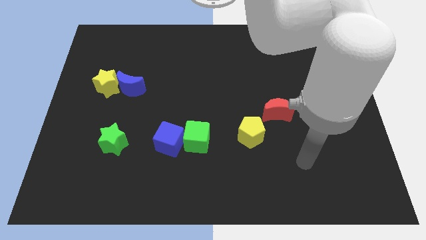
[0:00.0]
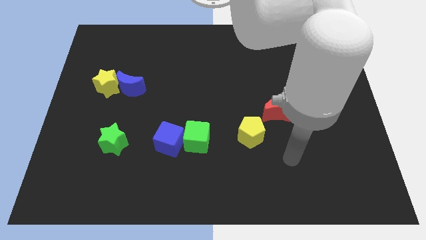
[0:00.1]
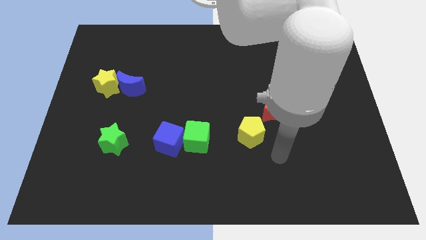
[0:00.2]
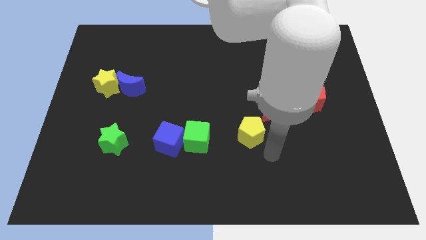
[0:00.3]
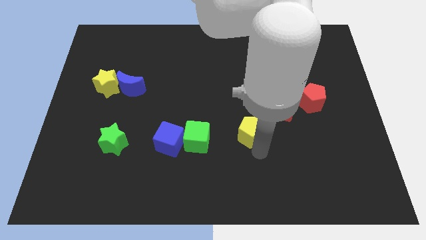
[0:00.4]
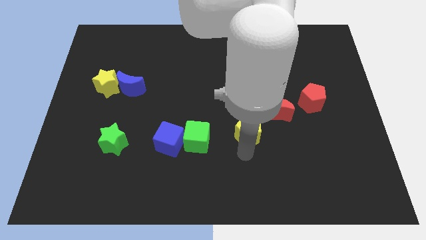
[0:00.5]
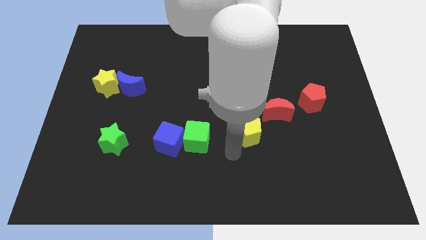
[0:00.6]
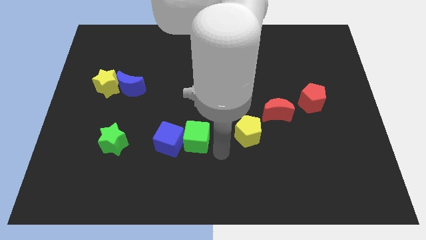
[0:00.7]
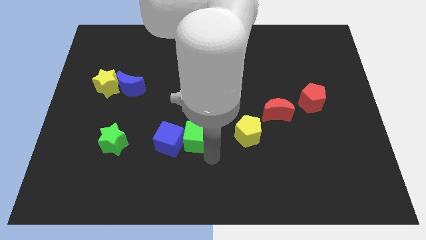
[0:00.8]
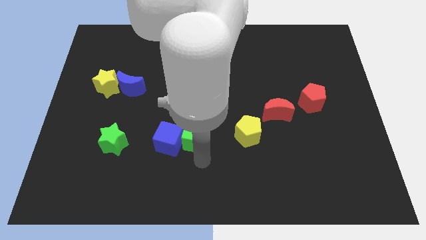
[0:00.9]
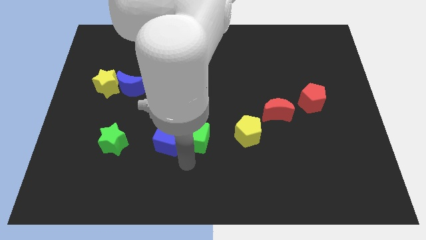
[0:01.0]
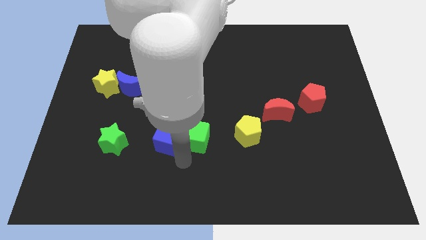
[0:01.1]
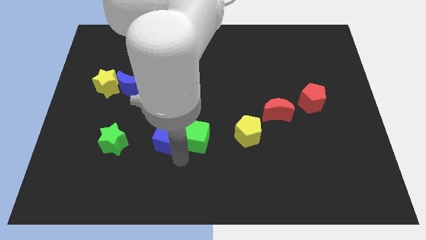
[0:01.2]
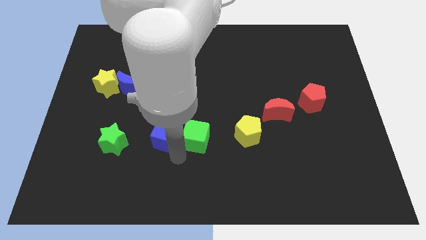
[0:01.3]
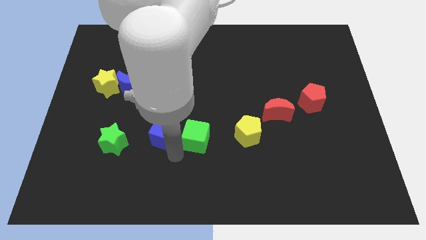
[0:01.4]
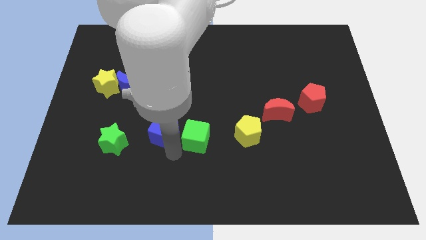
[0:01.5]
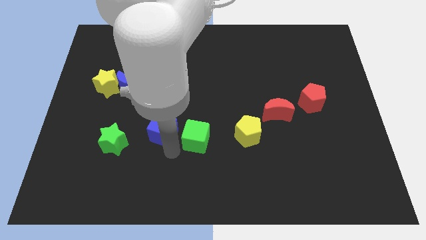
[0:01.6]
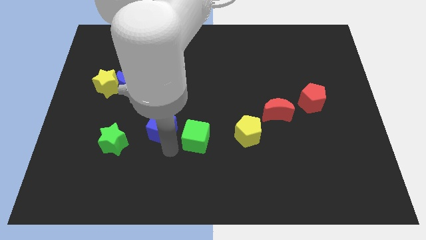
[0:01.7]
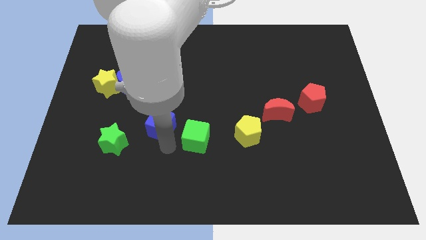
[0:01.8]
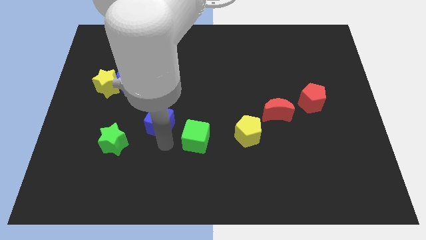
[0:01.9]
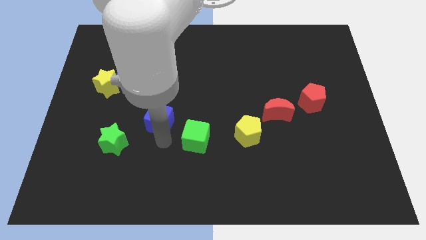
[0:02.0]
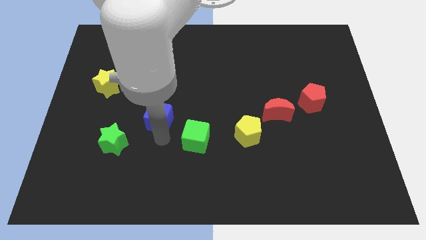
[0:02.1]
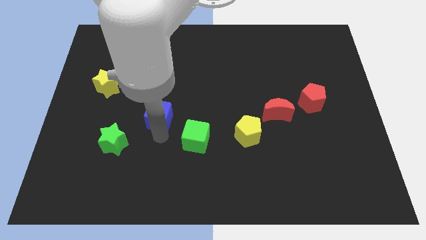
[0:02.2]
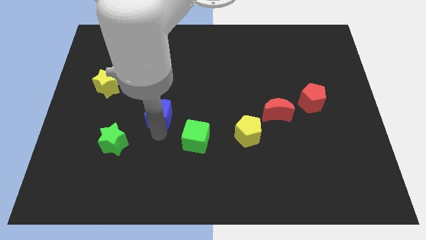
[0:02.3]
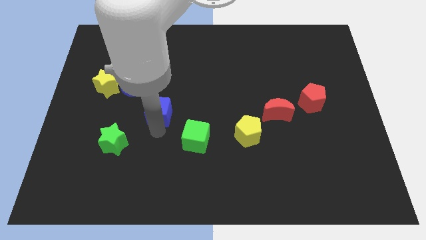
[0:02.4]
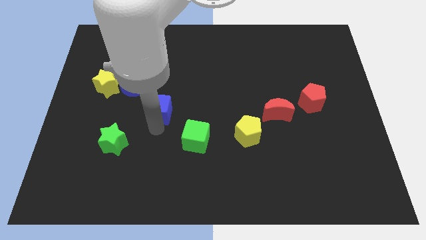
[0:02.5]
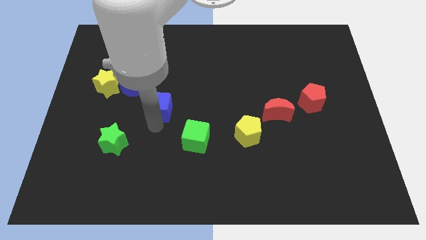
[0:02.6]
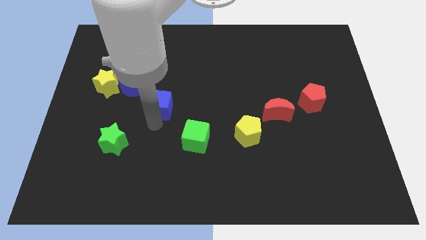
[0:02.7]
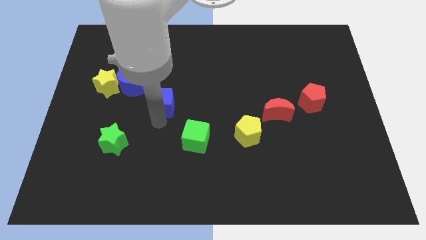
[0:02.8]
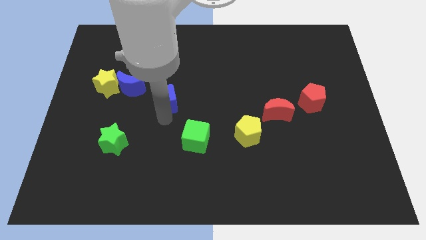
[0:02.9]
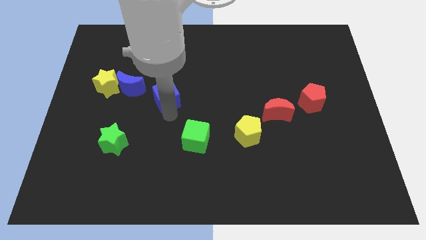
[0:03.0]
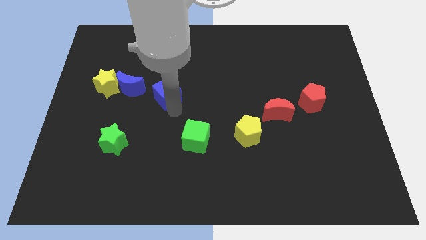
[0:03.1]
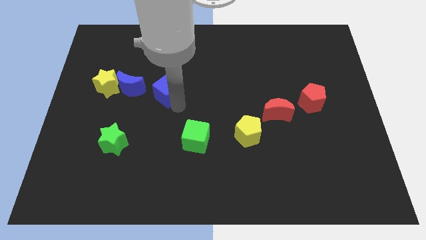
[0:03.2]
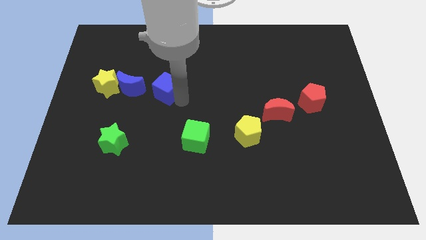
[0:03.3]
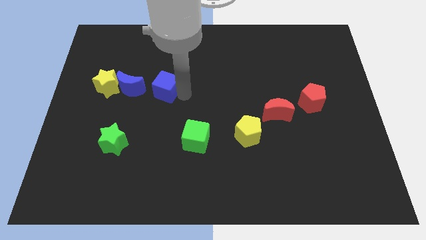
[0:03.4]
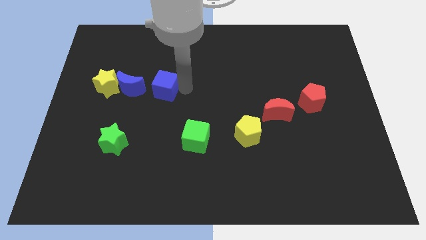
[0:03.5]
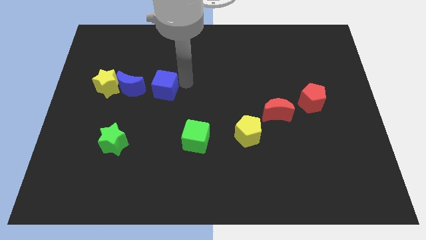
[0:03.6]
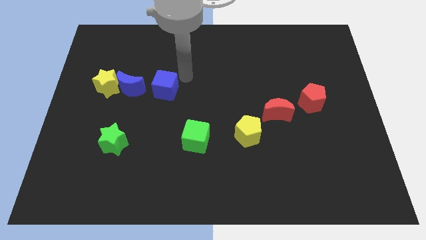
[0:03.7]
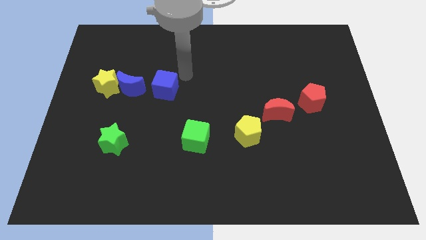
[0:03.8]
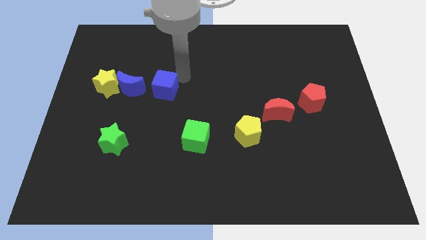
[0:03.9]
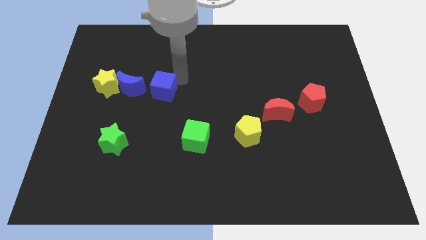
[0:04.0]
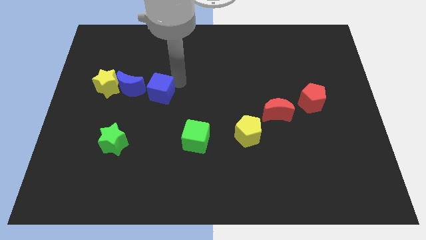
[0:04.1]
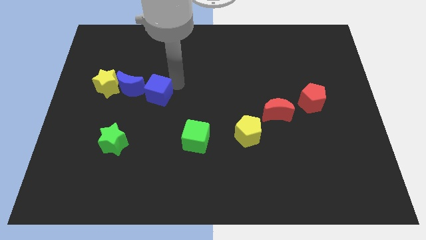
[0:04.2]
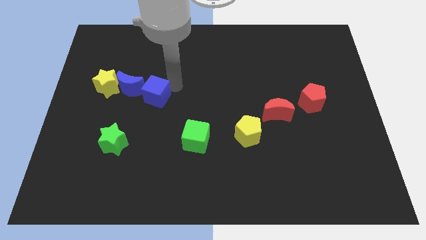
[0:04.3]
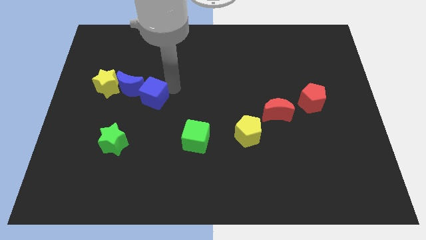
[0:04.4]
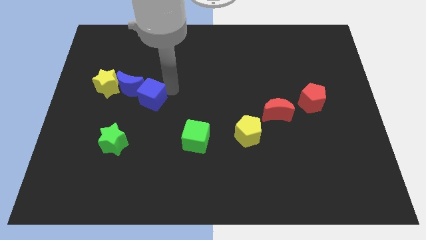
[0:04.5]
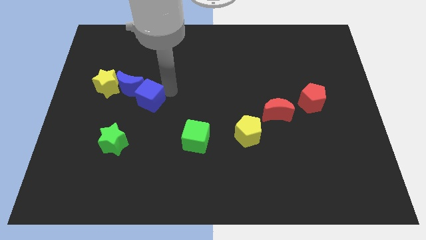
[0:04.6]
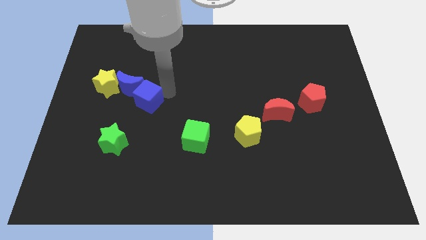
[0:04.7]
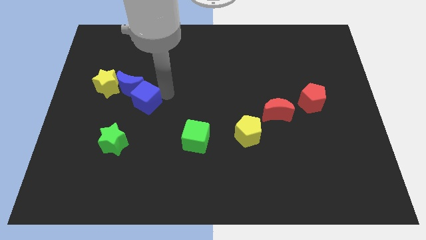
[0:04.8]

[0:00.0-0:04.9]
move the blue cube diagonally down and to the right of the yellow star

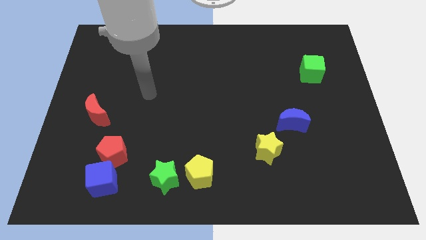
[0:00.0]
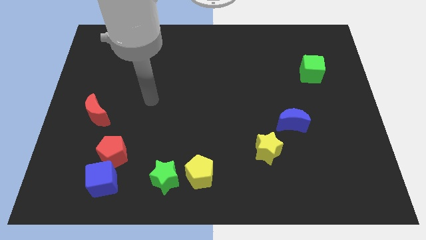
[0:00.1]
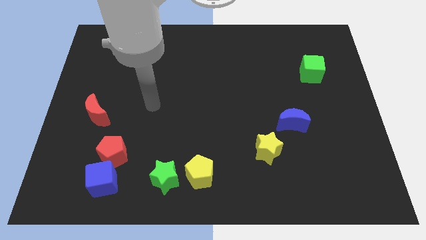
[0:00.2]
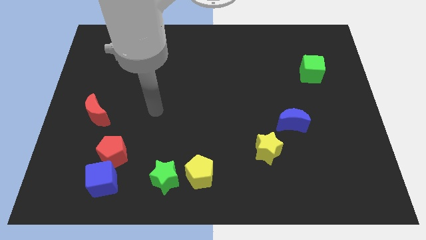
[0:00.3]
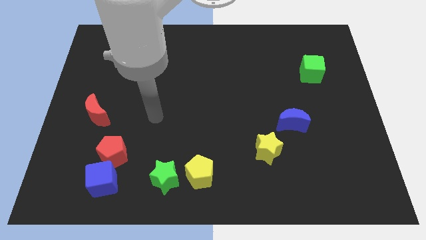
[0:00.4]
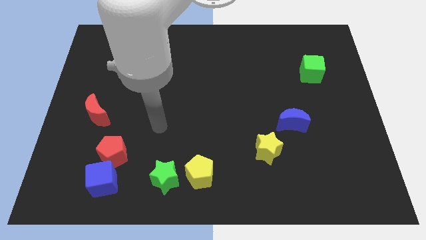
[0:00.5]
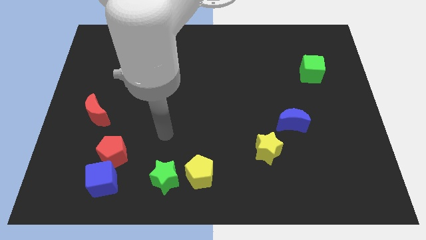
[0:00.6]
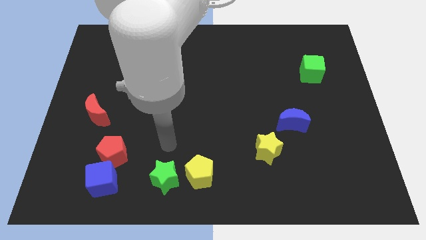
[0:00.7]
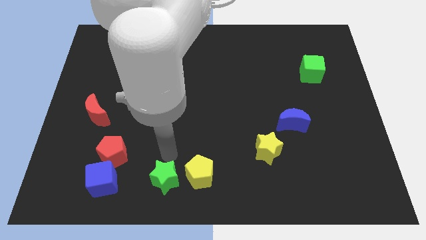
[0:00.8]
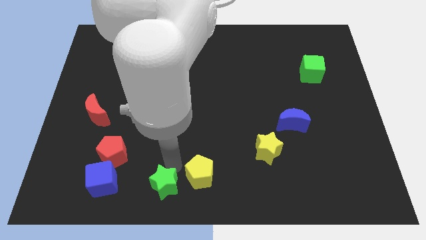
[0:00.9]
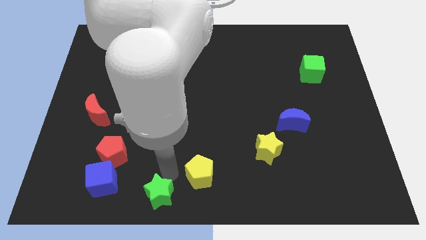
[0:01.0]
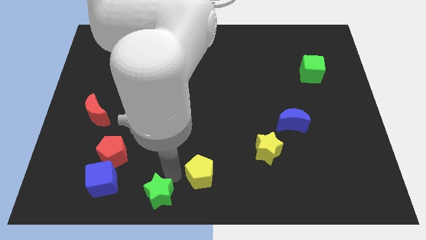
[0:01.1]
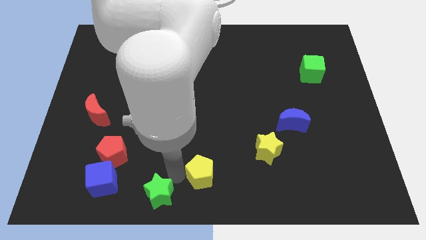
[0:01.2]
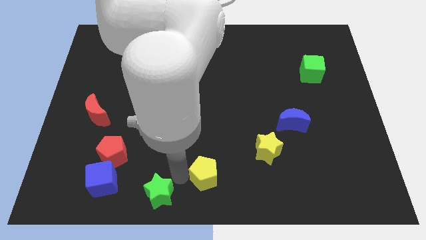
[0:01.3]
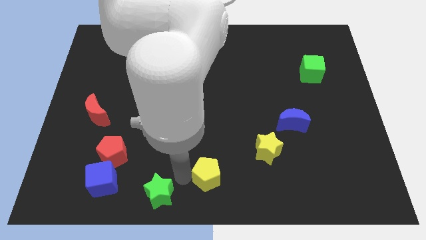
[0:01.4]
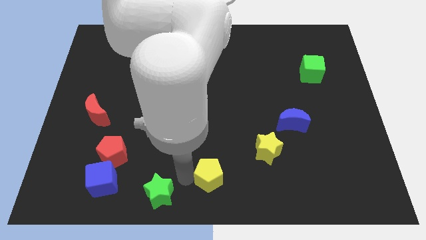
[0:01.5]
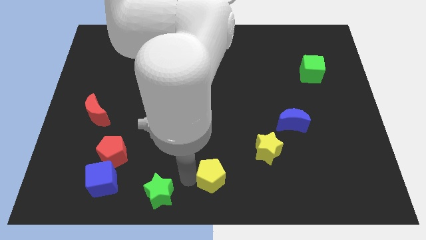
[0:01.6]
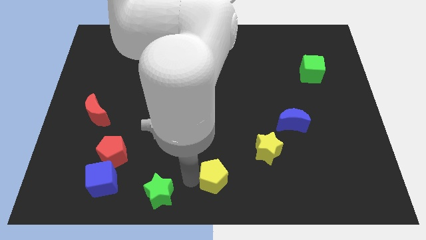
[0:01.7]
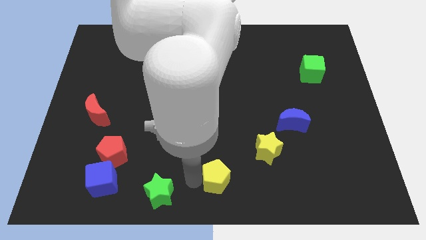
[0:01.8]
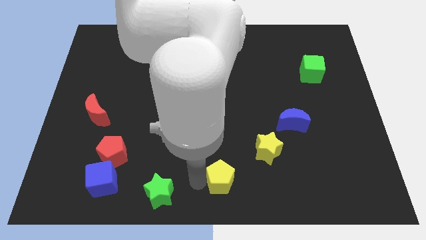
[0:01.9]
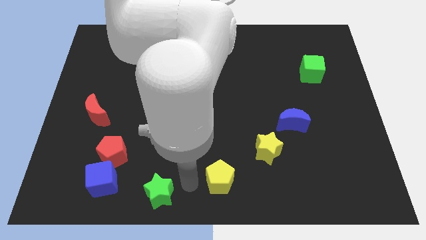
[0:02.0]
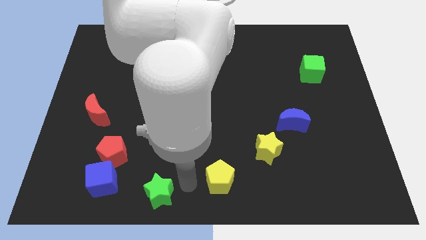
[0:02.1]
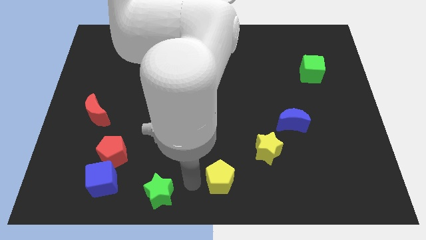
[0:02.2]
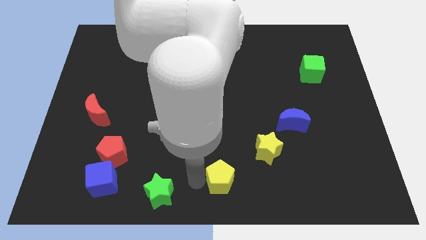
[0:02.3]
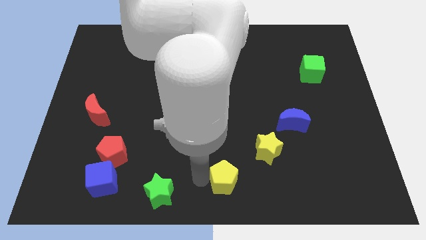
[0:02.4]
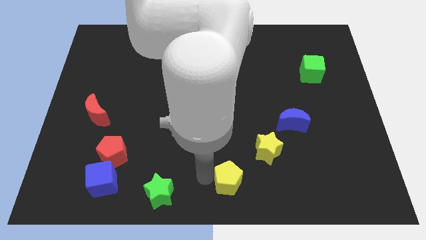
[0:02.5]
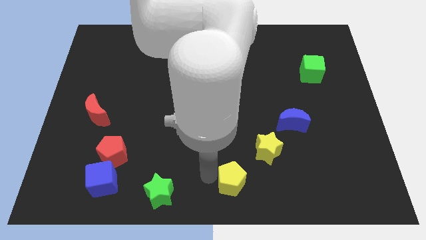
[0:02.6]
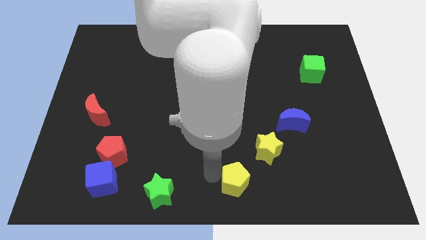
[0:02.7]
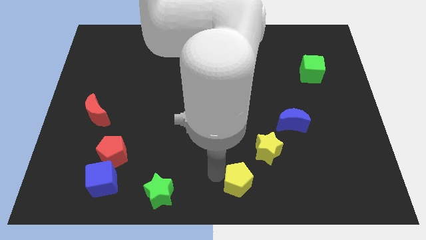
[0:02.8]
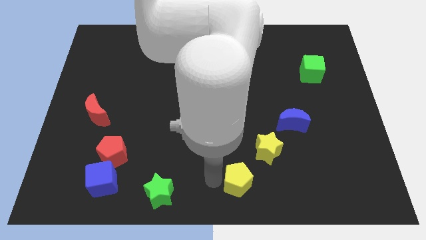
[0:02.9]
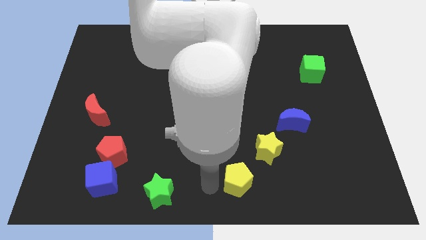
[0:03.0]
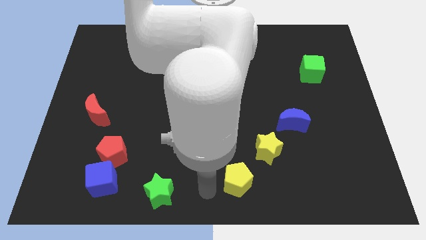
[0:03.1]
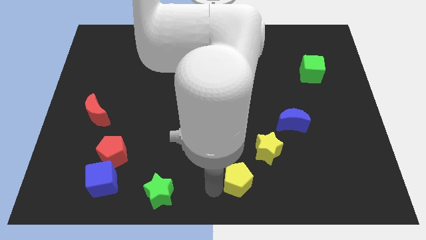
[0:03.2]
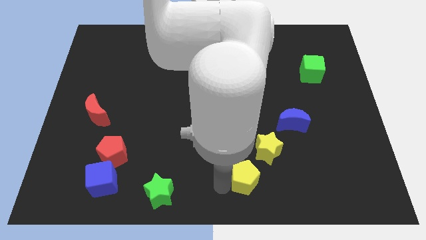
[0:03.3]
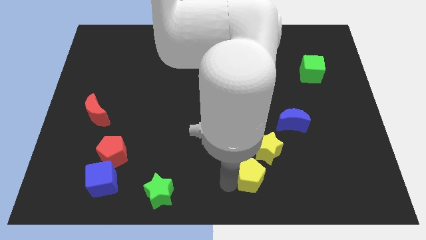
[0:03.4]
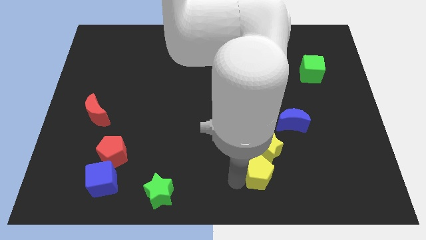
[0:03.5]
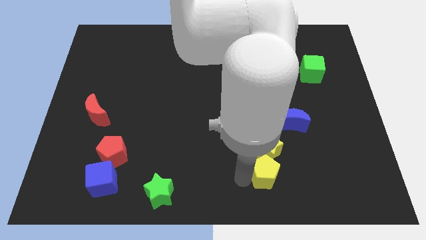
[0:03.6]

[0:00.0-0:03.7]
slide the yellow pentagon to the bottom right of the yellow star
